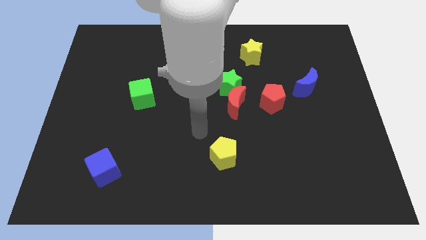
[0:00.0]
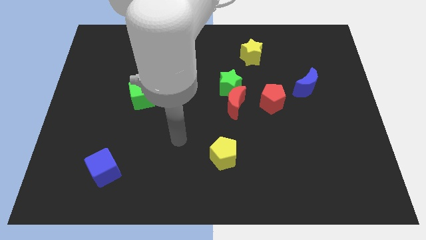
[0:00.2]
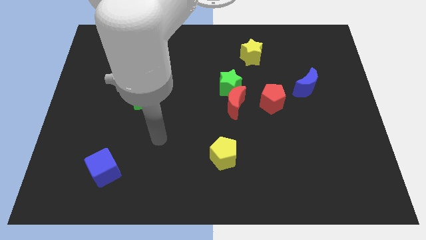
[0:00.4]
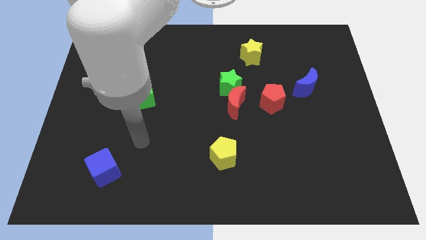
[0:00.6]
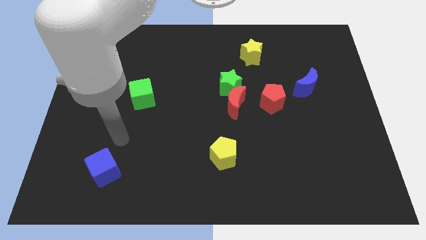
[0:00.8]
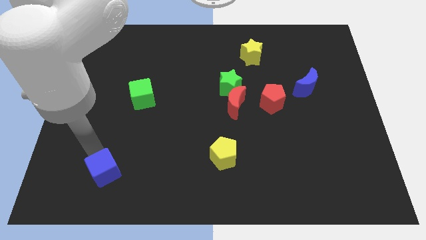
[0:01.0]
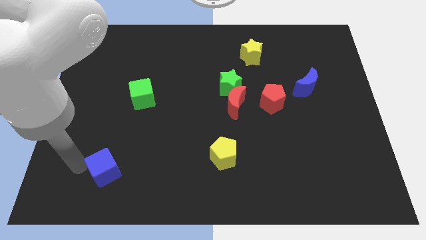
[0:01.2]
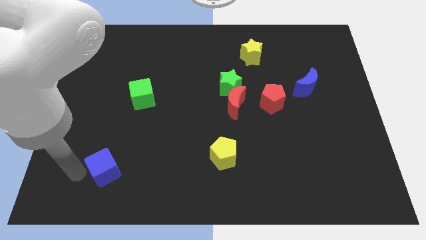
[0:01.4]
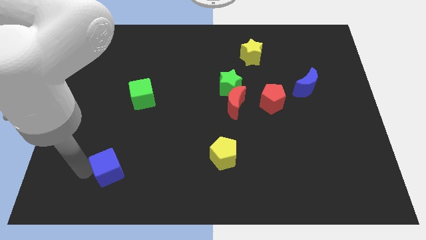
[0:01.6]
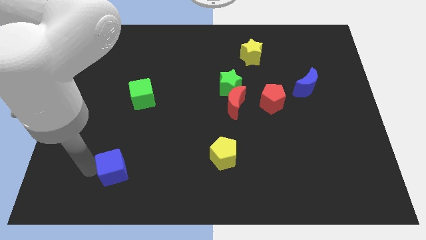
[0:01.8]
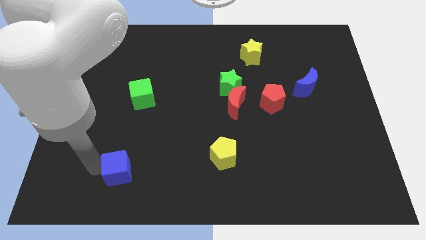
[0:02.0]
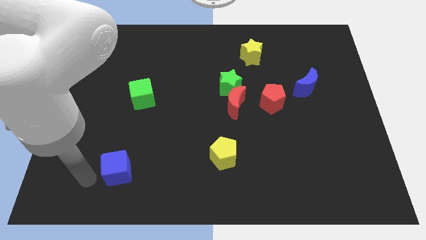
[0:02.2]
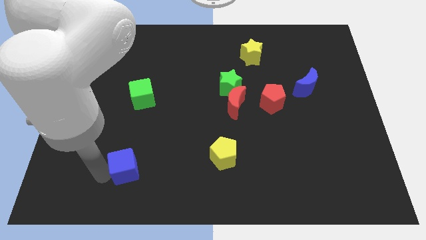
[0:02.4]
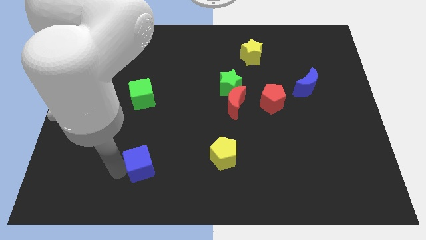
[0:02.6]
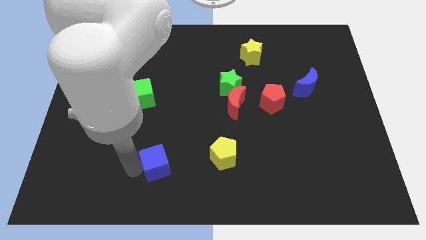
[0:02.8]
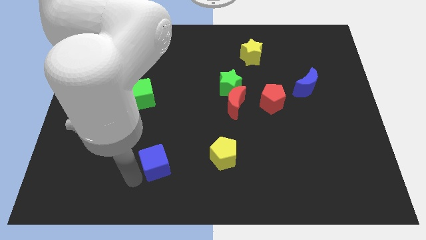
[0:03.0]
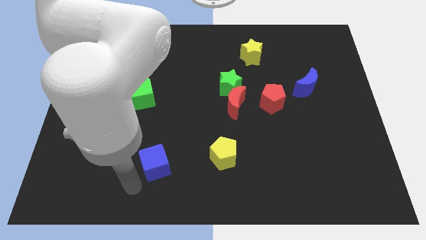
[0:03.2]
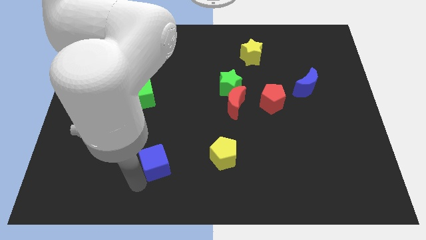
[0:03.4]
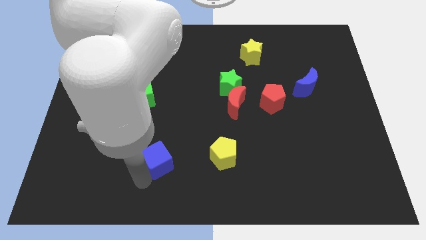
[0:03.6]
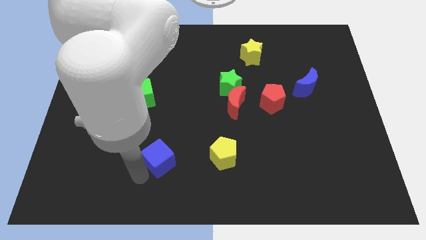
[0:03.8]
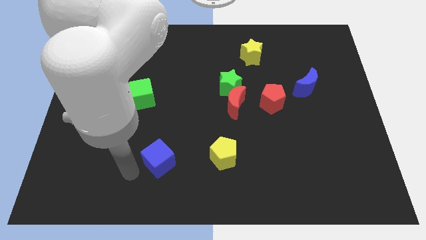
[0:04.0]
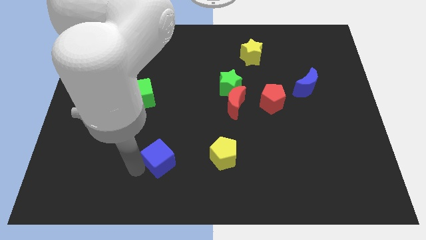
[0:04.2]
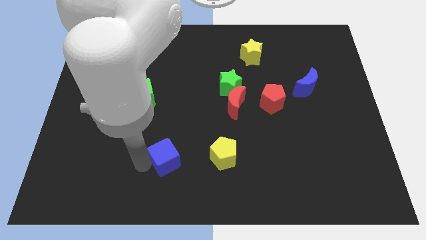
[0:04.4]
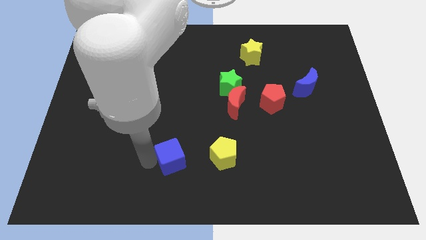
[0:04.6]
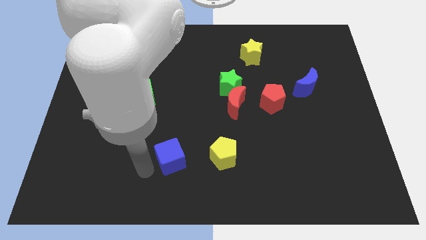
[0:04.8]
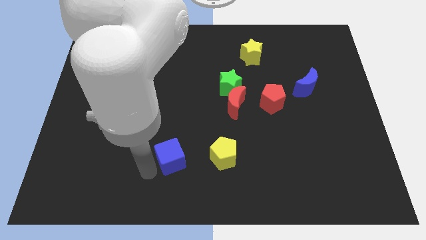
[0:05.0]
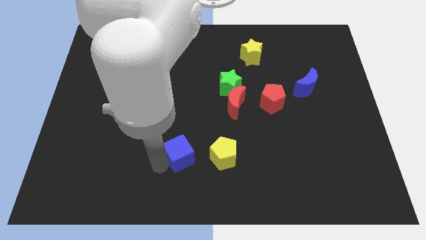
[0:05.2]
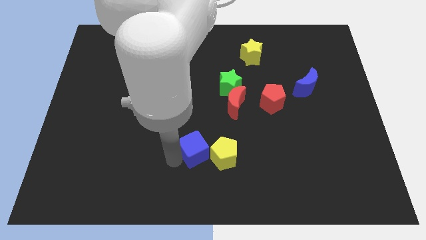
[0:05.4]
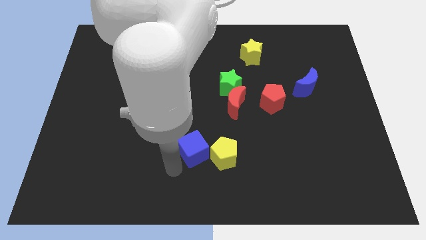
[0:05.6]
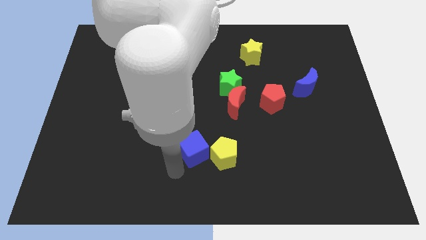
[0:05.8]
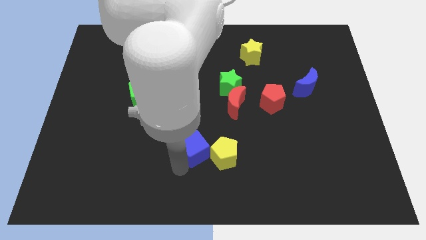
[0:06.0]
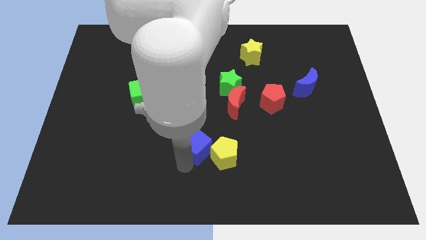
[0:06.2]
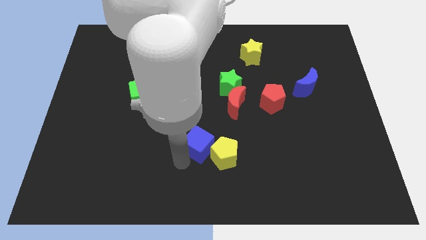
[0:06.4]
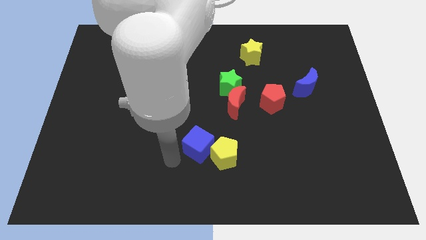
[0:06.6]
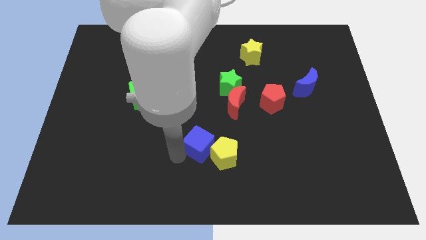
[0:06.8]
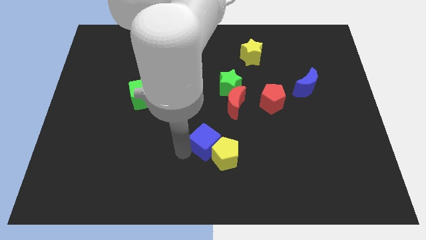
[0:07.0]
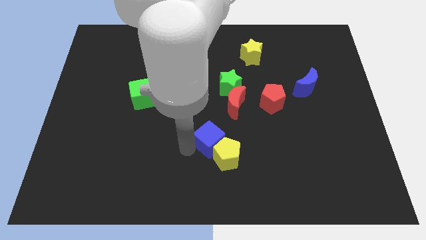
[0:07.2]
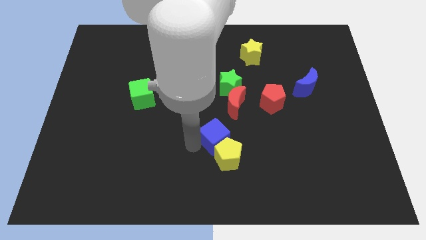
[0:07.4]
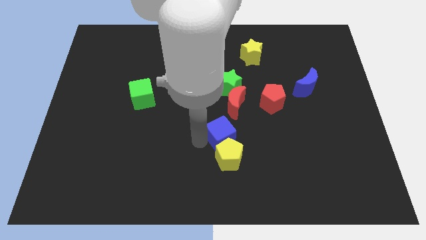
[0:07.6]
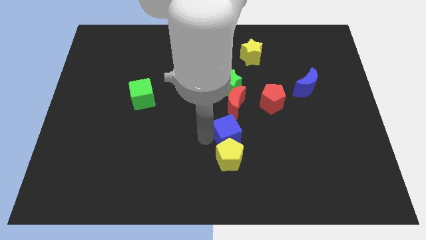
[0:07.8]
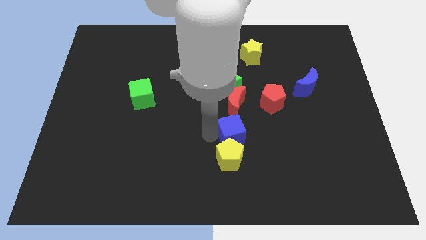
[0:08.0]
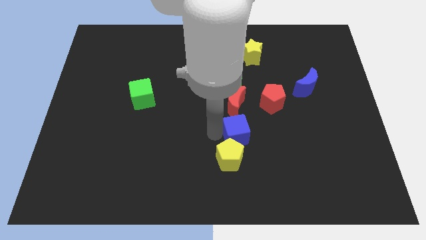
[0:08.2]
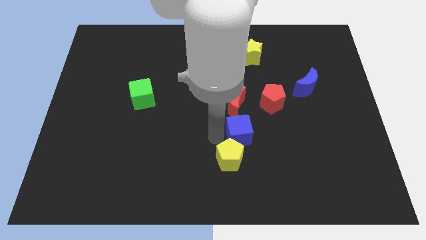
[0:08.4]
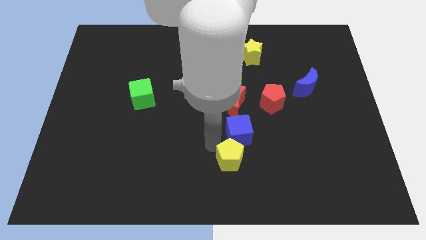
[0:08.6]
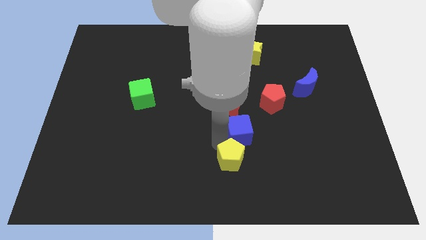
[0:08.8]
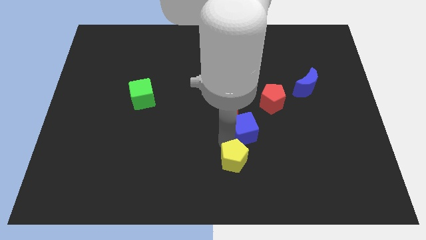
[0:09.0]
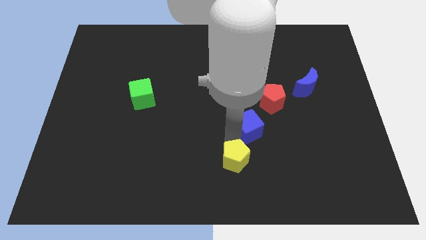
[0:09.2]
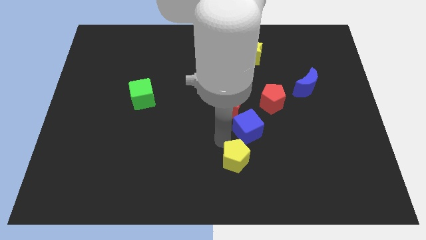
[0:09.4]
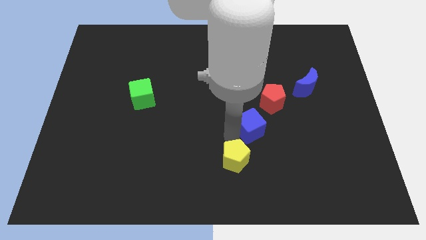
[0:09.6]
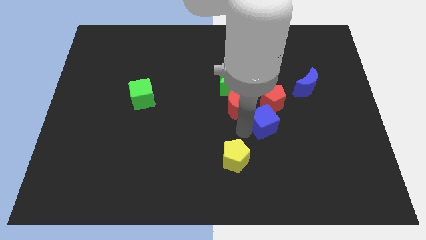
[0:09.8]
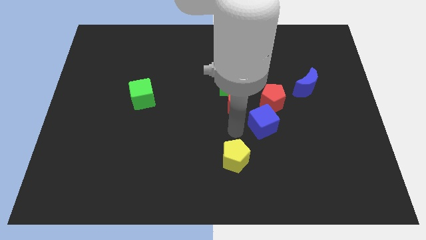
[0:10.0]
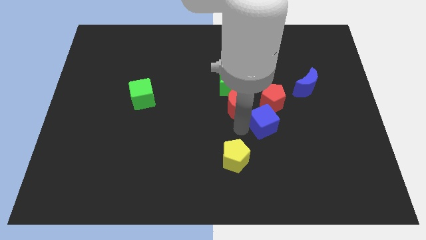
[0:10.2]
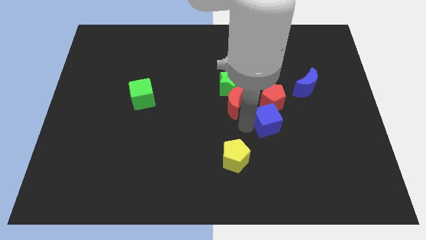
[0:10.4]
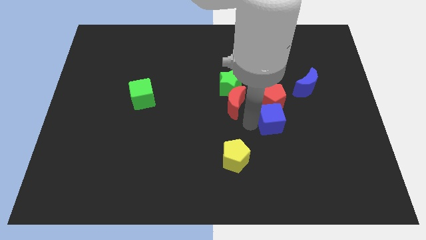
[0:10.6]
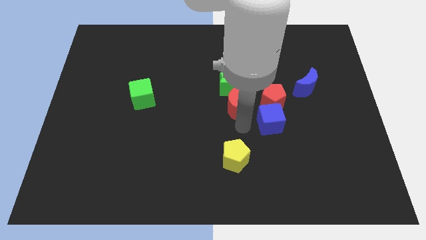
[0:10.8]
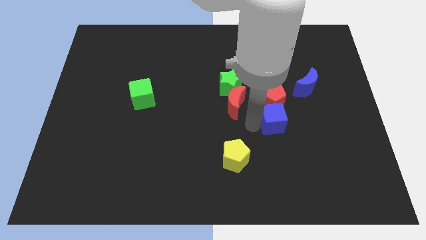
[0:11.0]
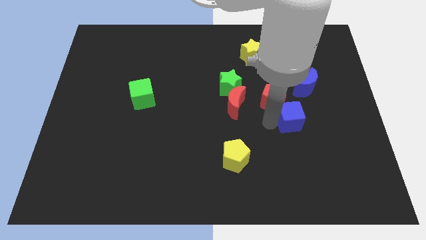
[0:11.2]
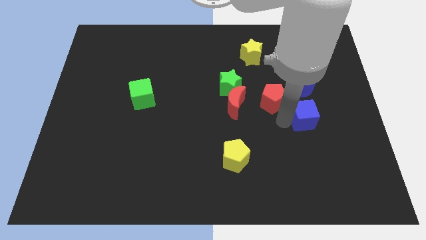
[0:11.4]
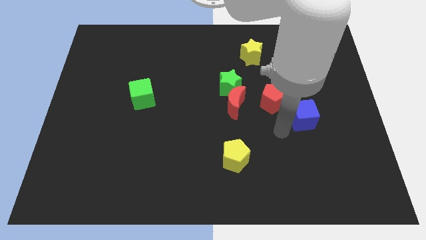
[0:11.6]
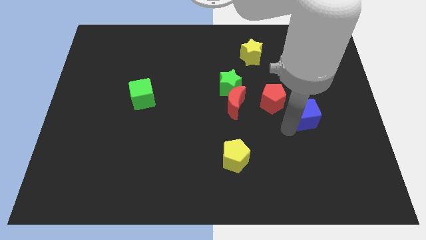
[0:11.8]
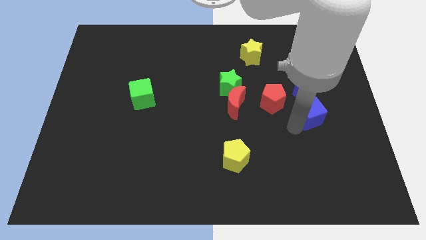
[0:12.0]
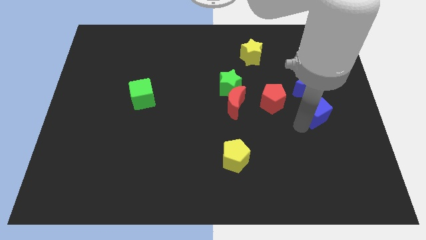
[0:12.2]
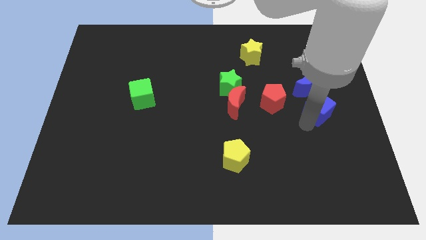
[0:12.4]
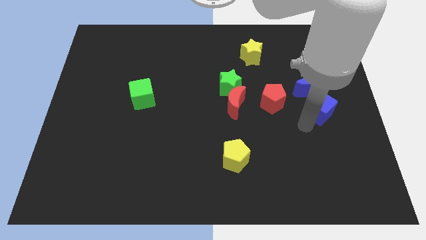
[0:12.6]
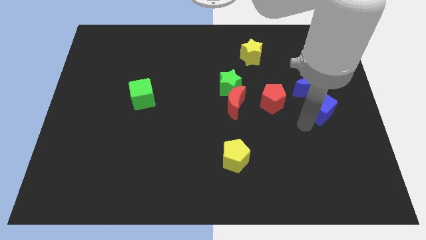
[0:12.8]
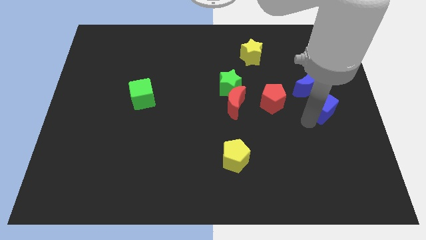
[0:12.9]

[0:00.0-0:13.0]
slide the blue cube to the center right
